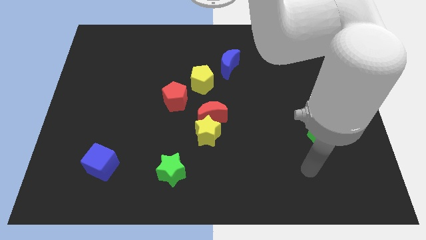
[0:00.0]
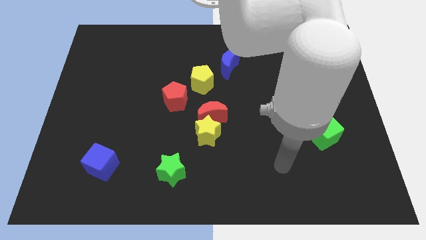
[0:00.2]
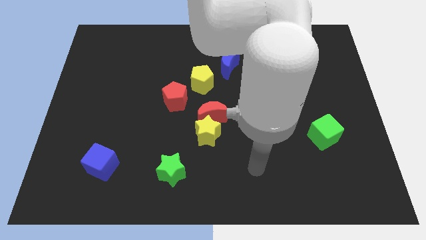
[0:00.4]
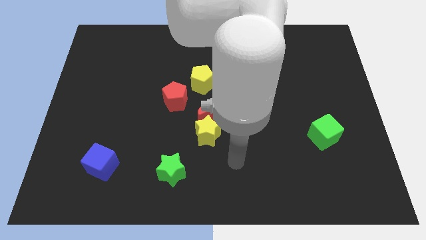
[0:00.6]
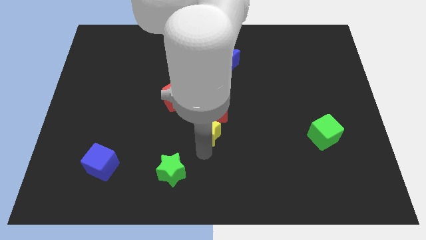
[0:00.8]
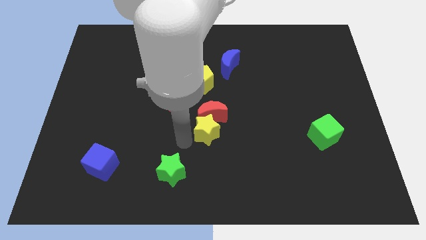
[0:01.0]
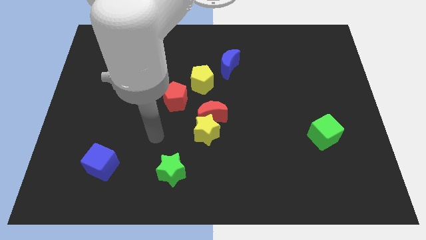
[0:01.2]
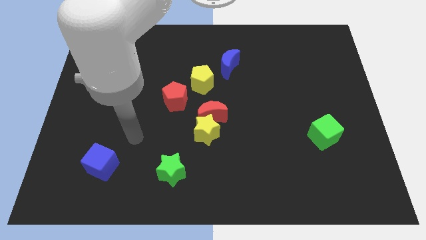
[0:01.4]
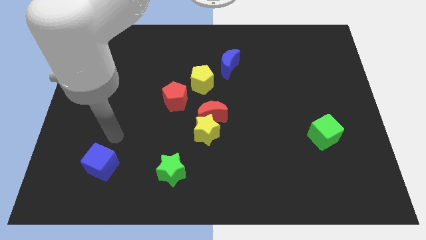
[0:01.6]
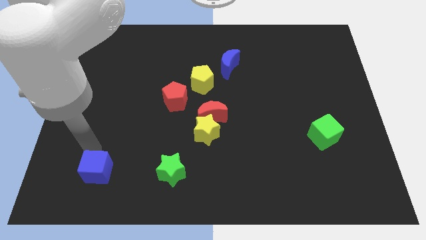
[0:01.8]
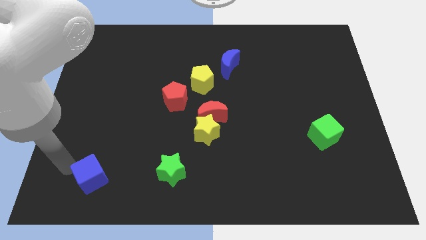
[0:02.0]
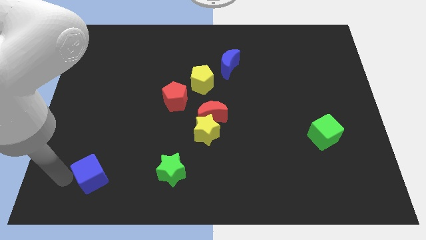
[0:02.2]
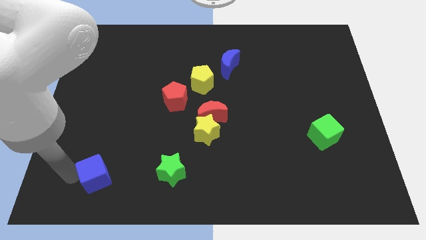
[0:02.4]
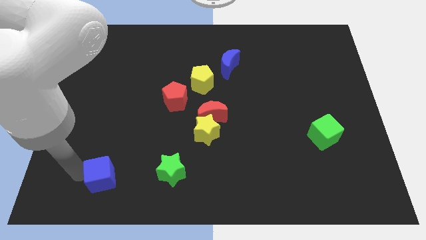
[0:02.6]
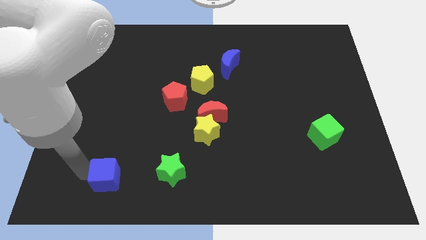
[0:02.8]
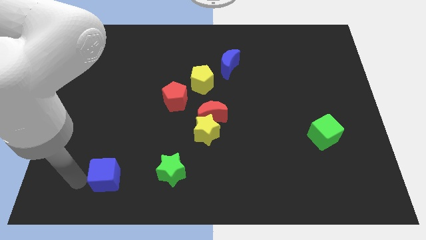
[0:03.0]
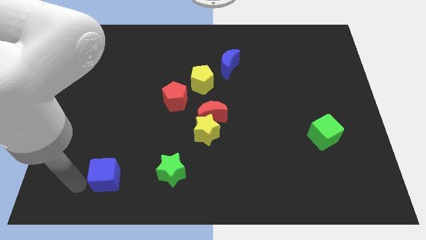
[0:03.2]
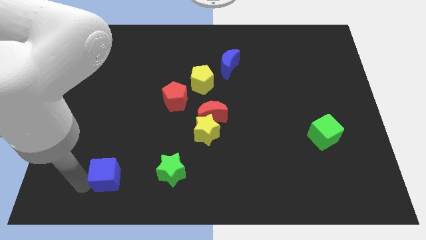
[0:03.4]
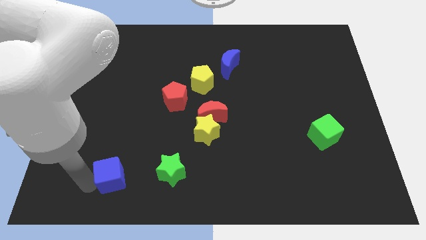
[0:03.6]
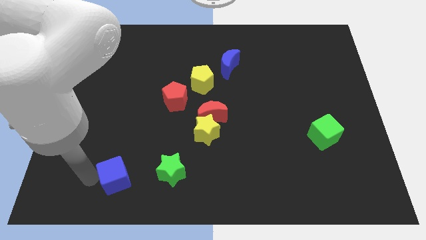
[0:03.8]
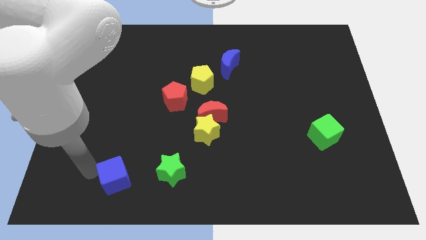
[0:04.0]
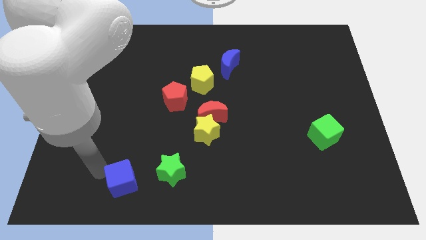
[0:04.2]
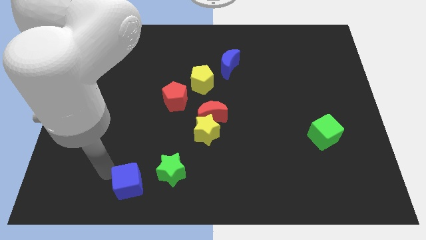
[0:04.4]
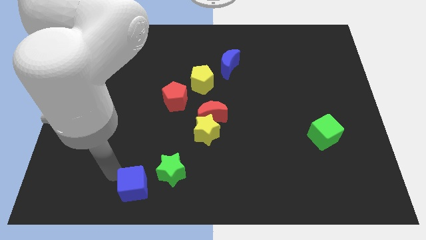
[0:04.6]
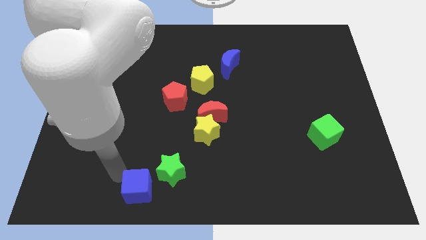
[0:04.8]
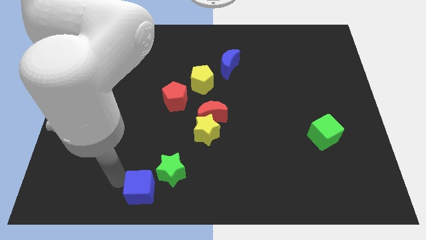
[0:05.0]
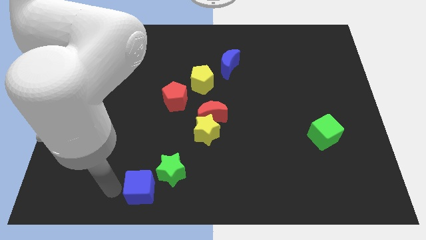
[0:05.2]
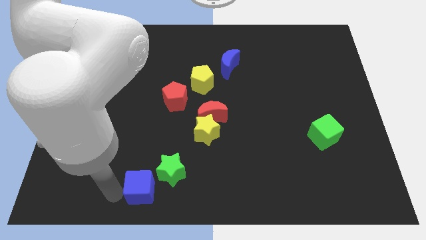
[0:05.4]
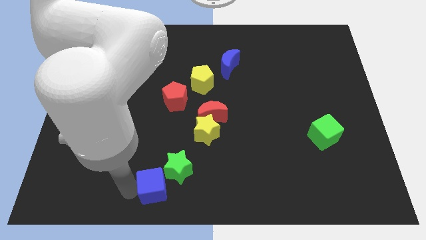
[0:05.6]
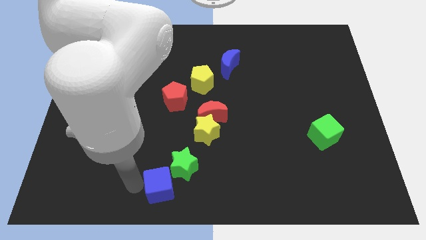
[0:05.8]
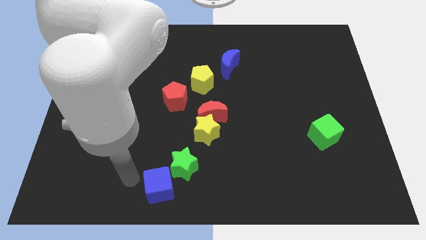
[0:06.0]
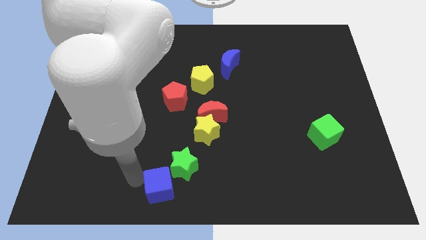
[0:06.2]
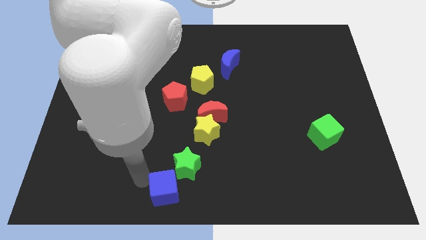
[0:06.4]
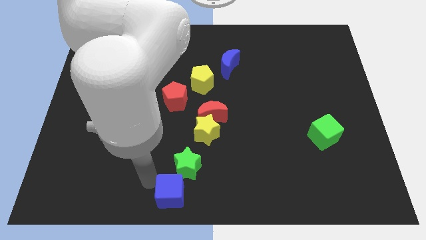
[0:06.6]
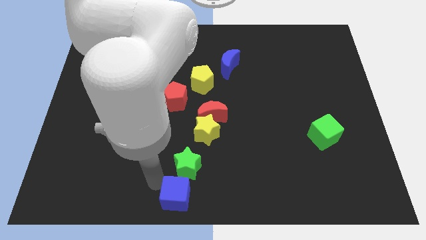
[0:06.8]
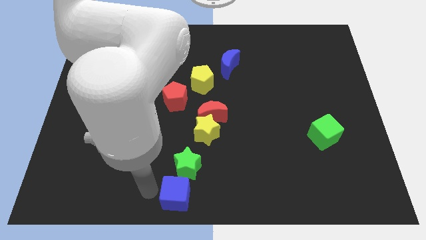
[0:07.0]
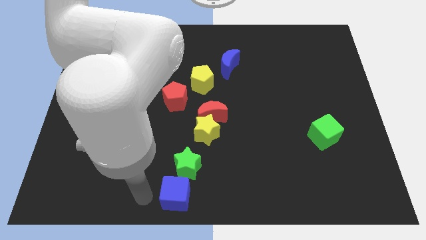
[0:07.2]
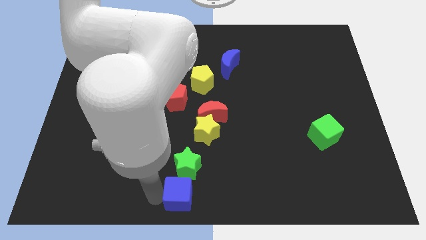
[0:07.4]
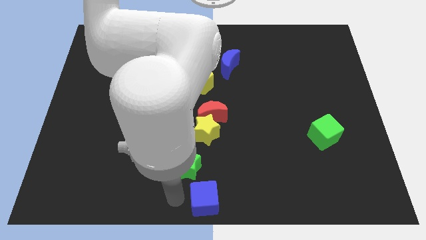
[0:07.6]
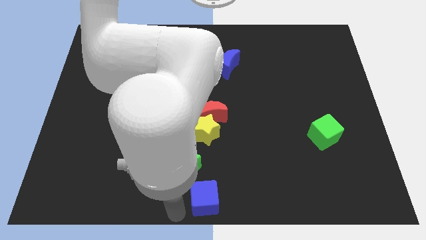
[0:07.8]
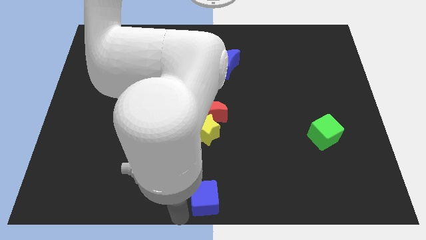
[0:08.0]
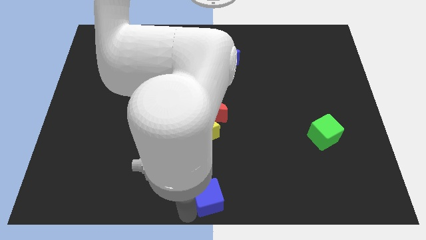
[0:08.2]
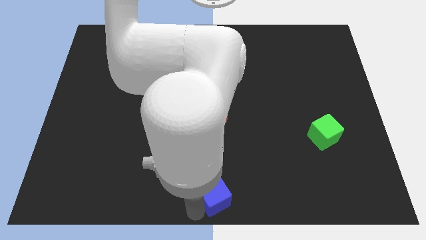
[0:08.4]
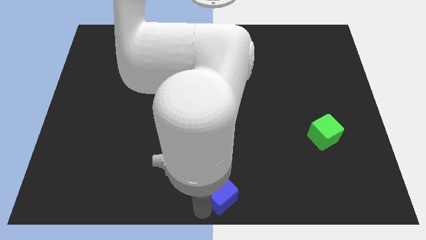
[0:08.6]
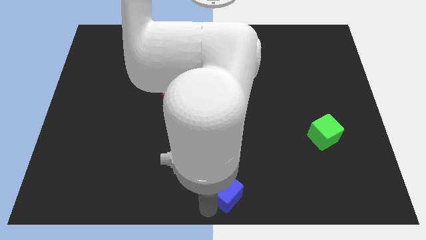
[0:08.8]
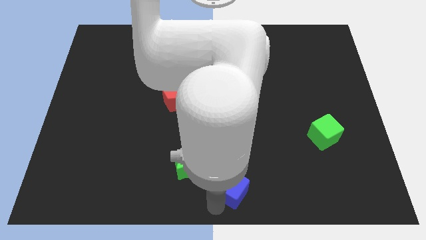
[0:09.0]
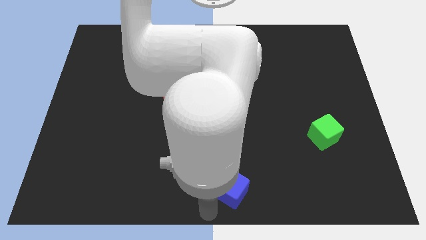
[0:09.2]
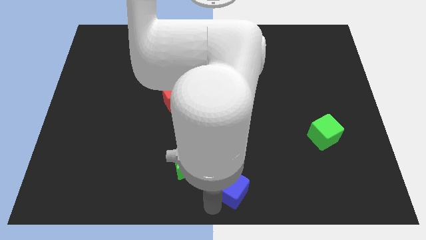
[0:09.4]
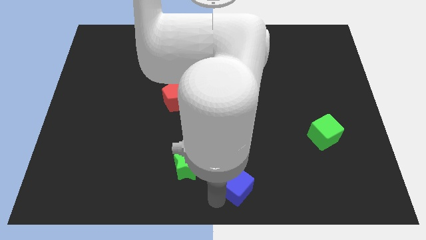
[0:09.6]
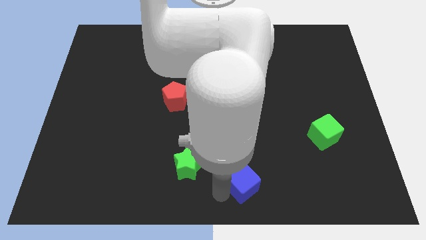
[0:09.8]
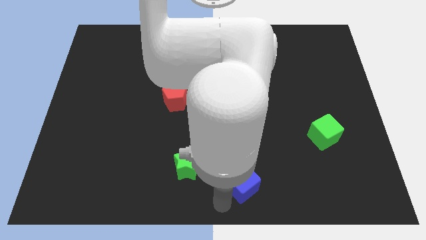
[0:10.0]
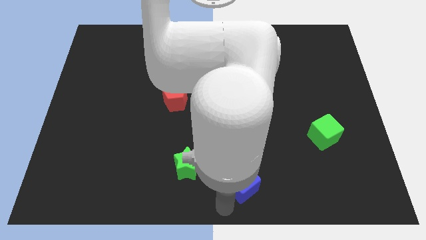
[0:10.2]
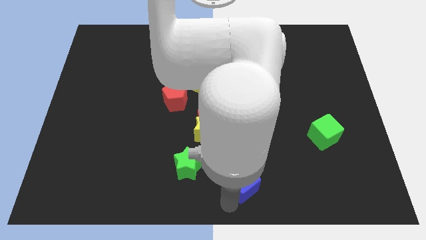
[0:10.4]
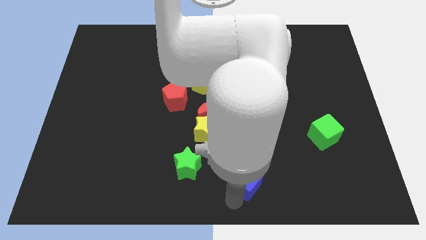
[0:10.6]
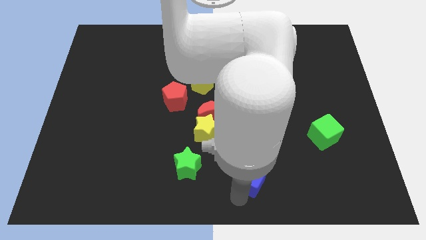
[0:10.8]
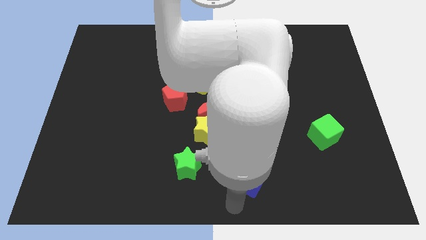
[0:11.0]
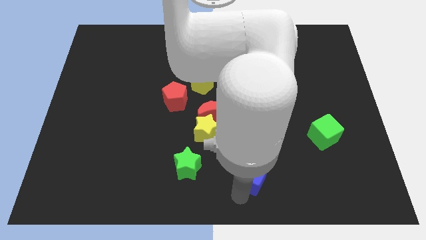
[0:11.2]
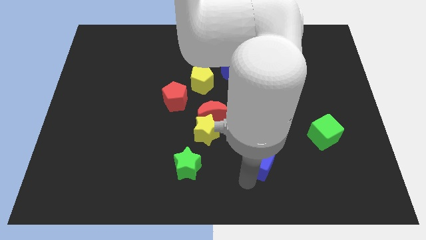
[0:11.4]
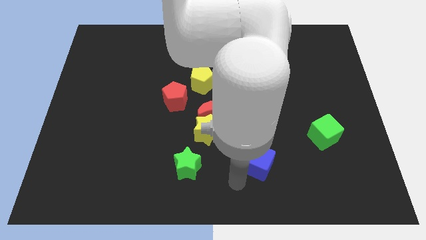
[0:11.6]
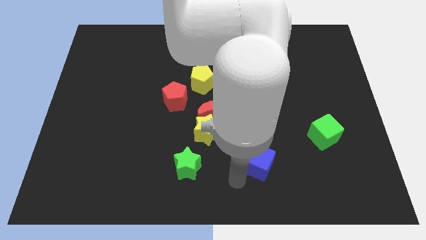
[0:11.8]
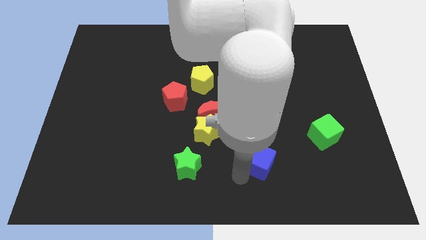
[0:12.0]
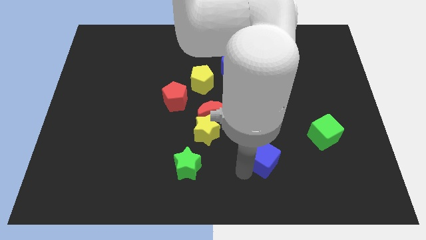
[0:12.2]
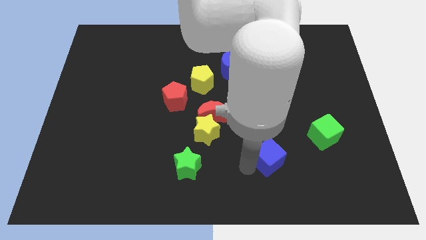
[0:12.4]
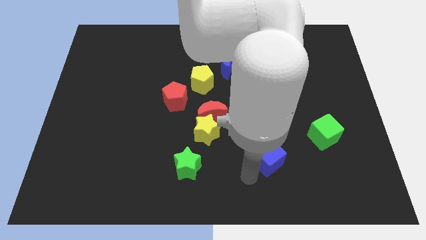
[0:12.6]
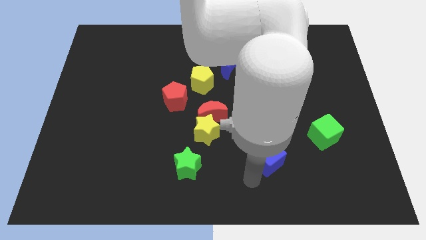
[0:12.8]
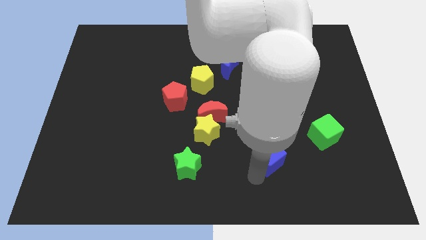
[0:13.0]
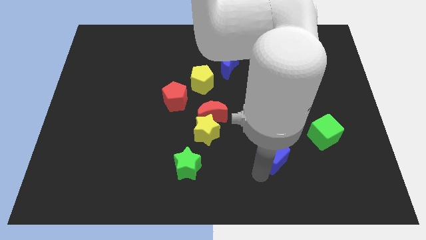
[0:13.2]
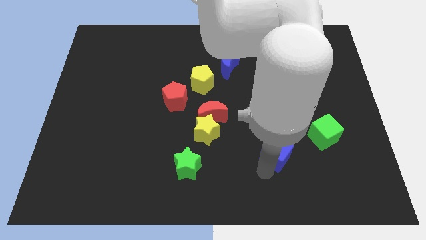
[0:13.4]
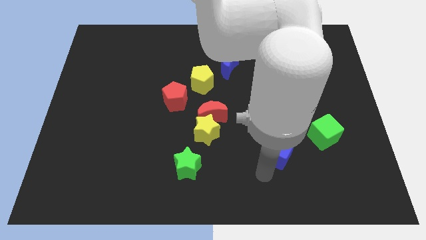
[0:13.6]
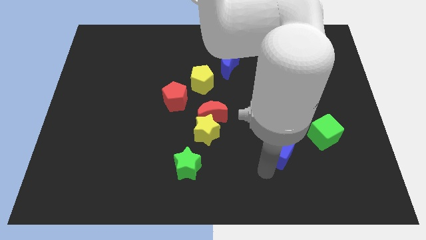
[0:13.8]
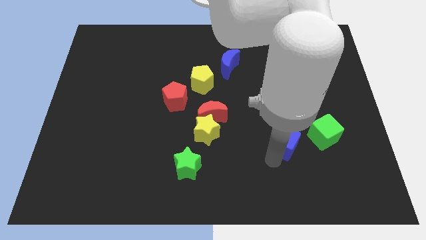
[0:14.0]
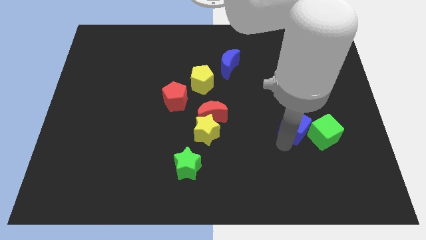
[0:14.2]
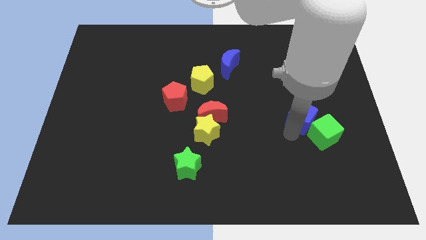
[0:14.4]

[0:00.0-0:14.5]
move the blue cube above the green cube

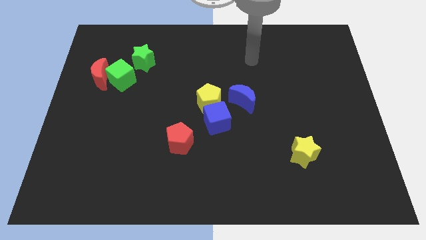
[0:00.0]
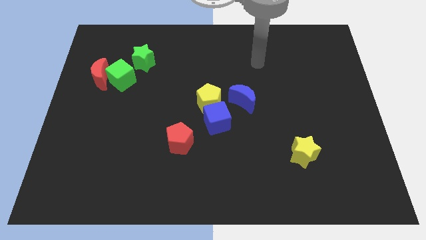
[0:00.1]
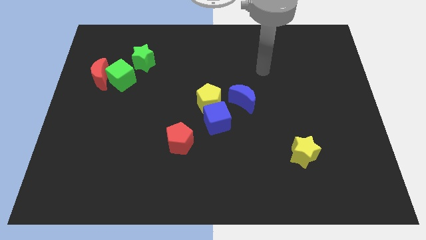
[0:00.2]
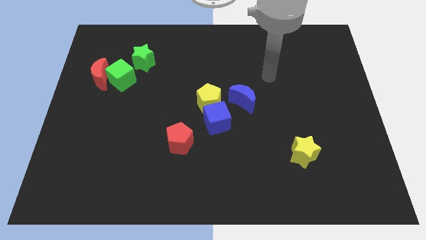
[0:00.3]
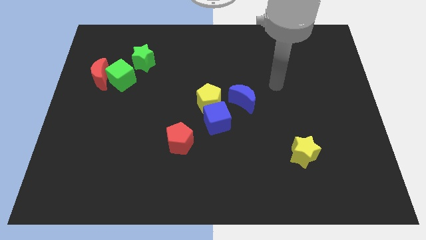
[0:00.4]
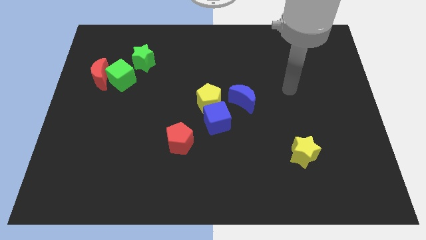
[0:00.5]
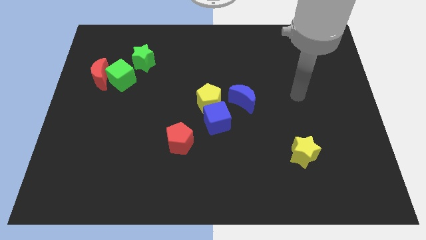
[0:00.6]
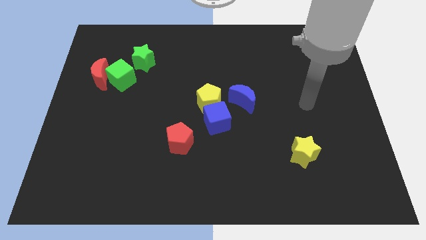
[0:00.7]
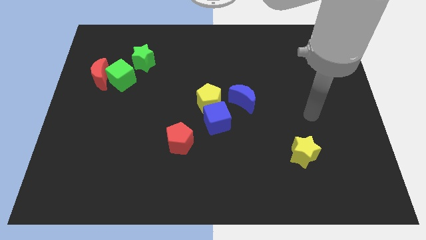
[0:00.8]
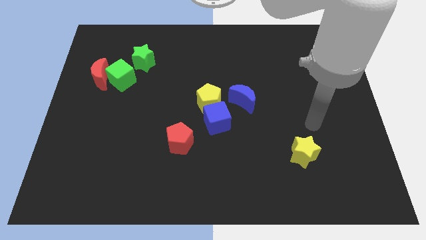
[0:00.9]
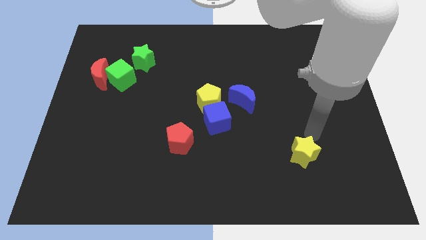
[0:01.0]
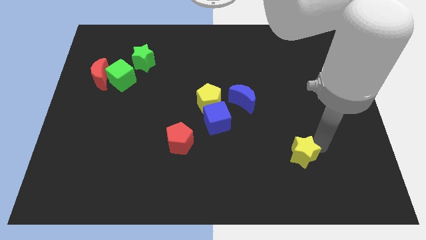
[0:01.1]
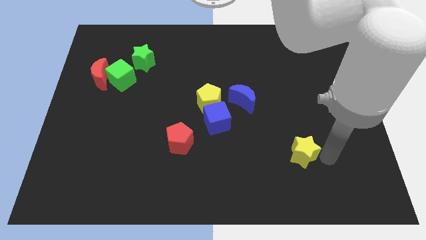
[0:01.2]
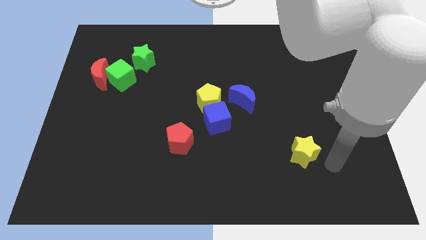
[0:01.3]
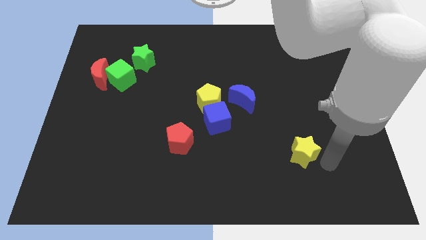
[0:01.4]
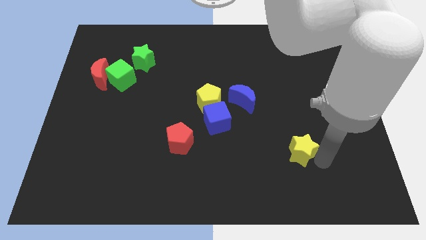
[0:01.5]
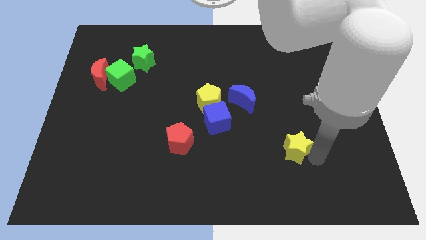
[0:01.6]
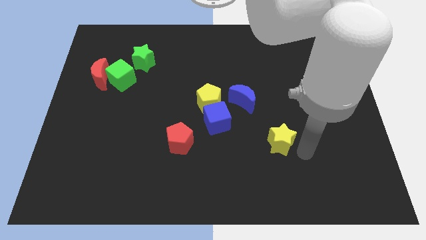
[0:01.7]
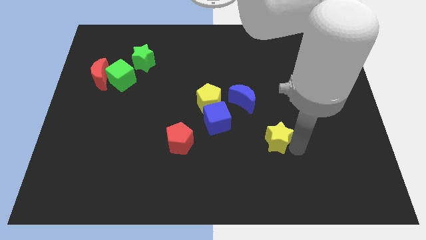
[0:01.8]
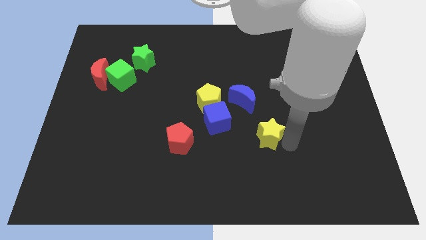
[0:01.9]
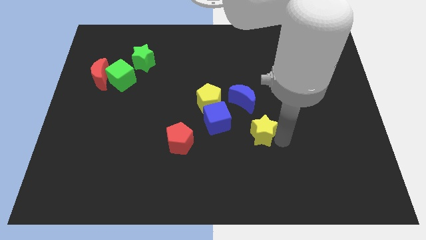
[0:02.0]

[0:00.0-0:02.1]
move the yellow star to the bottom side of the blue moon
